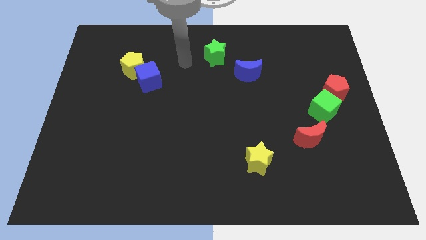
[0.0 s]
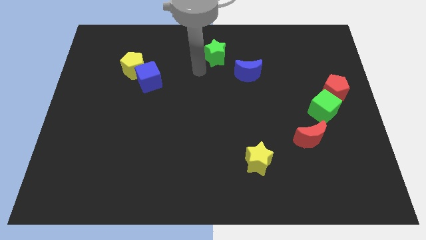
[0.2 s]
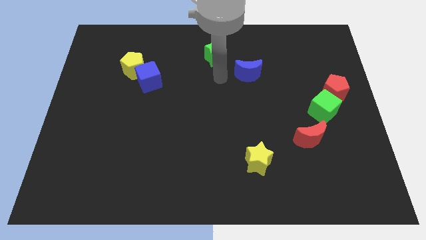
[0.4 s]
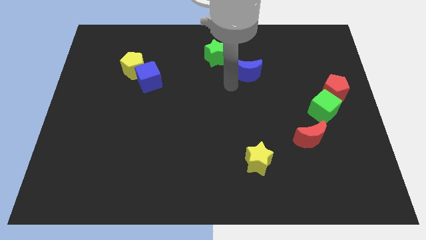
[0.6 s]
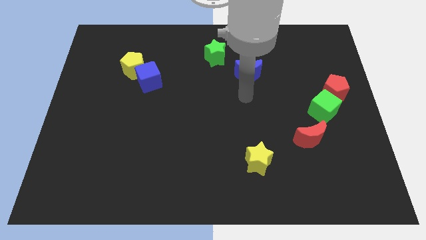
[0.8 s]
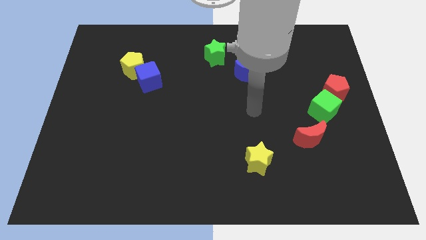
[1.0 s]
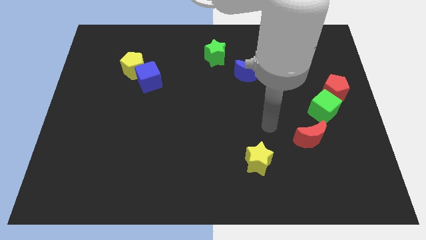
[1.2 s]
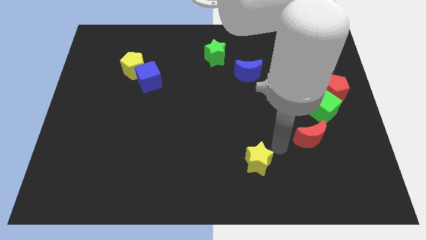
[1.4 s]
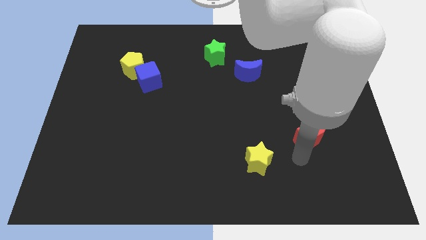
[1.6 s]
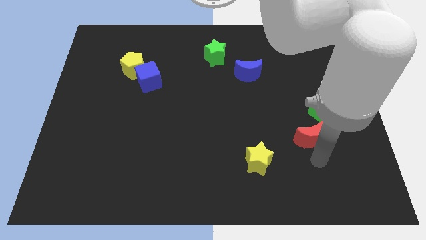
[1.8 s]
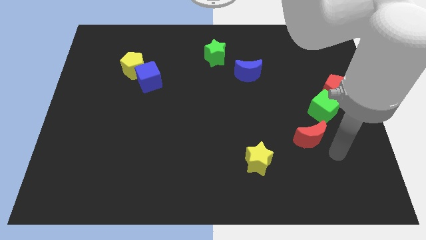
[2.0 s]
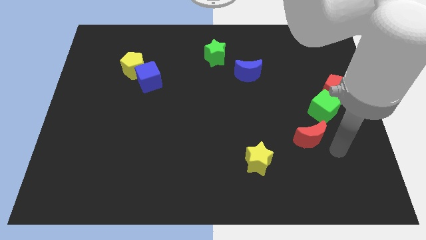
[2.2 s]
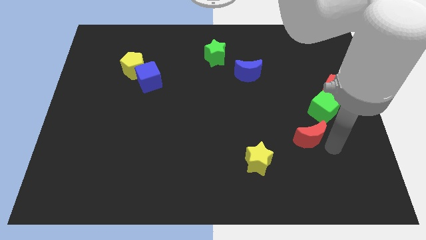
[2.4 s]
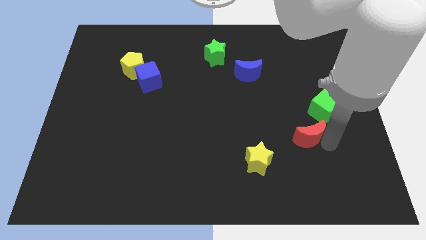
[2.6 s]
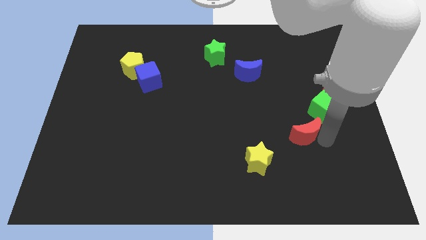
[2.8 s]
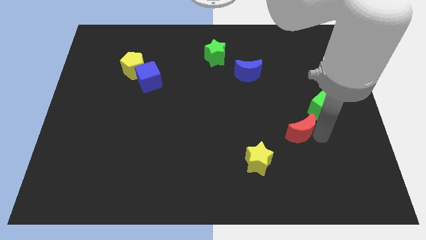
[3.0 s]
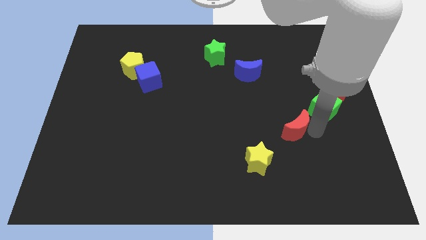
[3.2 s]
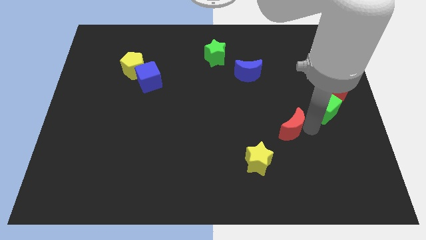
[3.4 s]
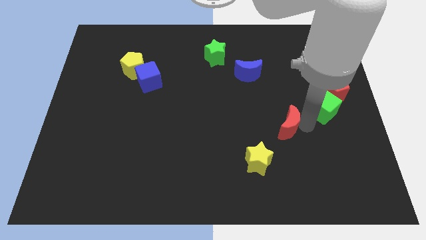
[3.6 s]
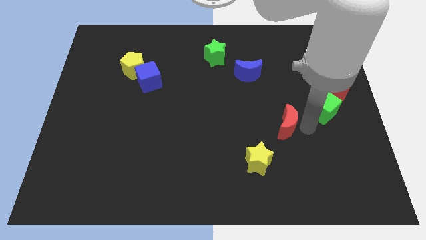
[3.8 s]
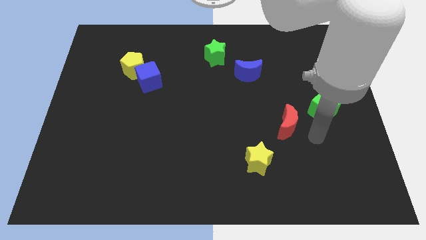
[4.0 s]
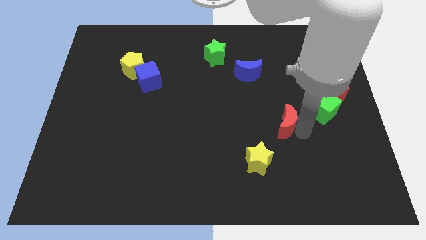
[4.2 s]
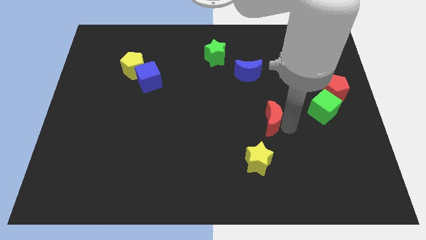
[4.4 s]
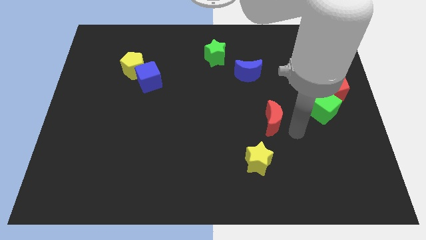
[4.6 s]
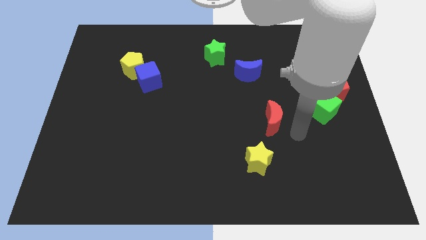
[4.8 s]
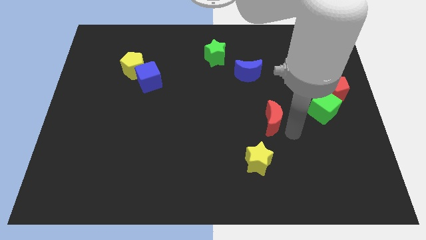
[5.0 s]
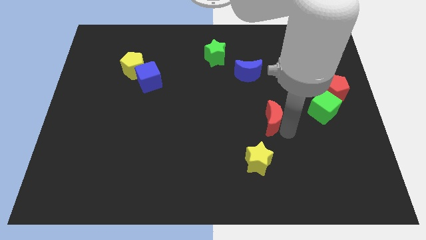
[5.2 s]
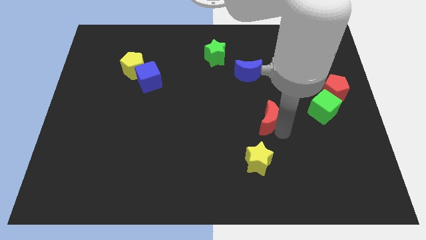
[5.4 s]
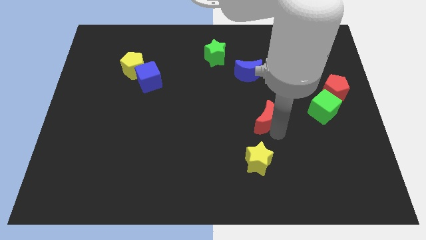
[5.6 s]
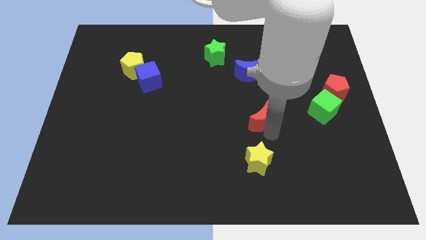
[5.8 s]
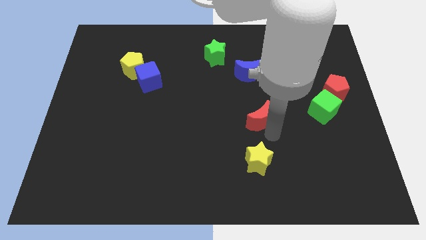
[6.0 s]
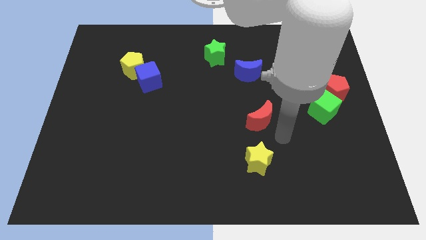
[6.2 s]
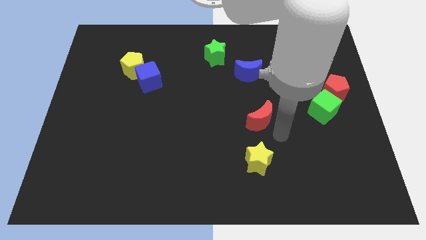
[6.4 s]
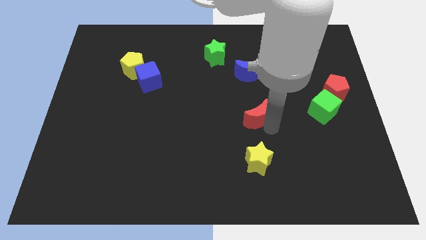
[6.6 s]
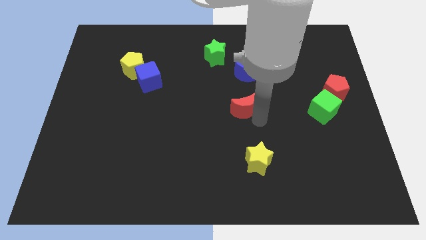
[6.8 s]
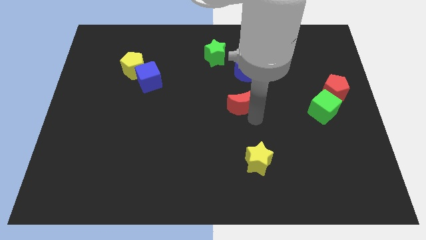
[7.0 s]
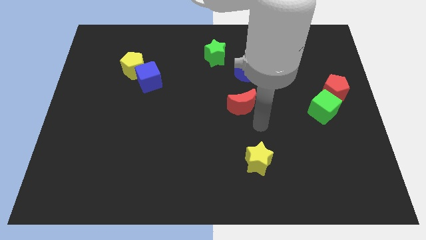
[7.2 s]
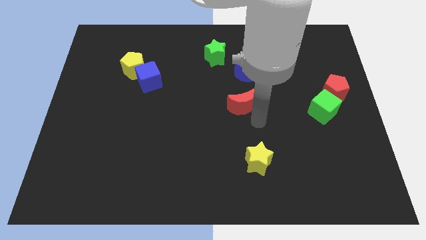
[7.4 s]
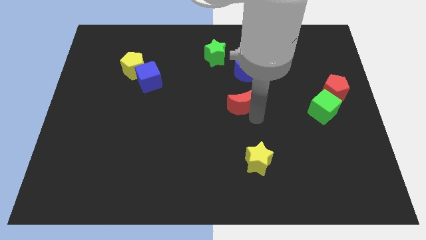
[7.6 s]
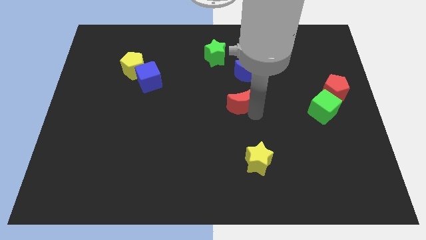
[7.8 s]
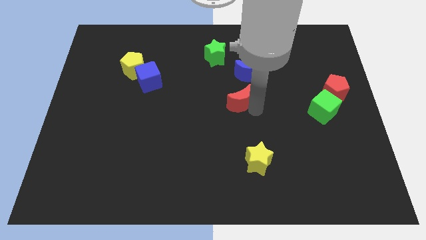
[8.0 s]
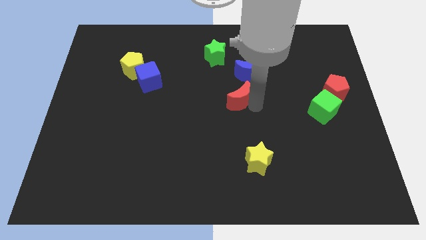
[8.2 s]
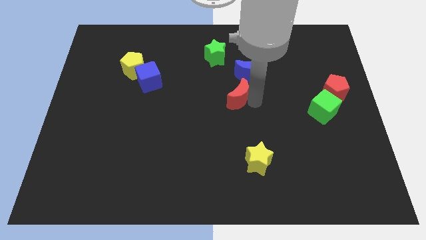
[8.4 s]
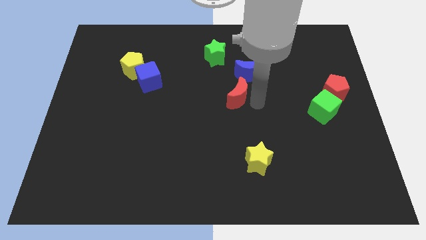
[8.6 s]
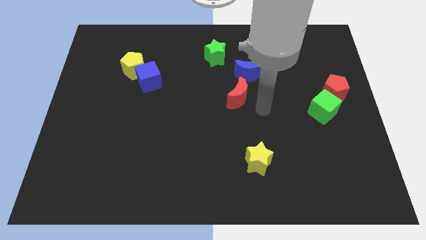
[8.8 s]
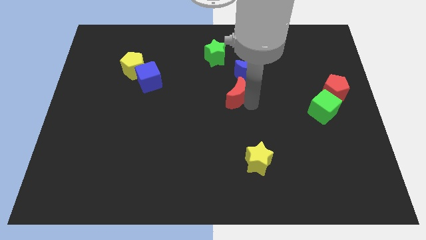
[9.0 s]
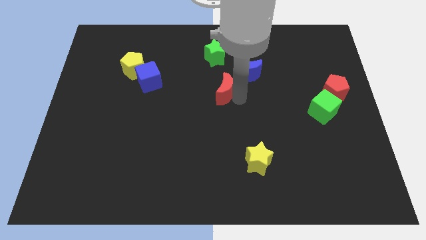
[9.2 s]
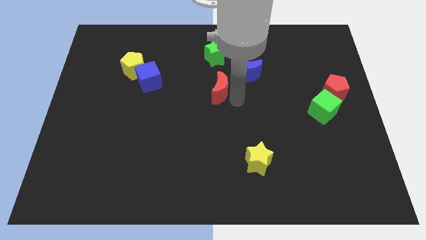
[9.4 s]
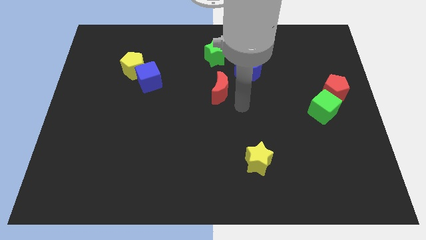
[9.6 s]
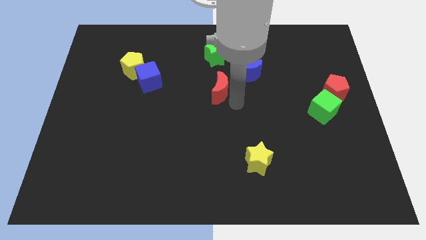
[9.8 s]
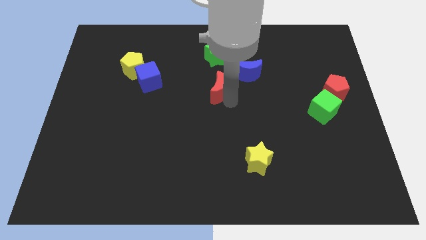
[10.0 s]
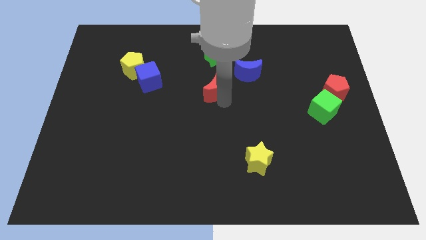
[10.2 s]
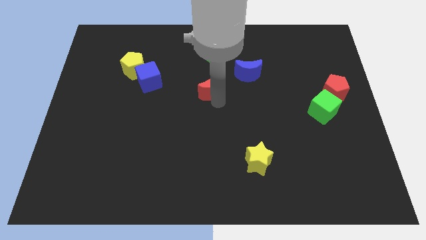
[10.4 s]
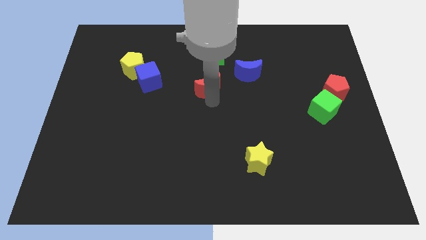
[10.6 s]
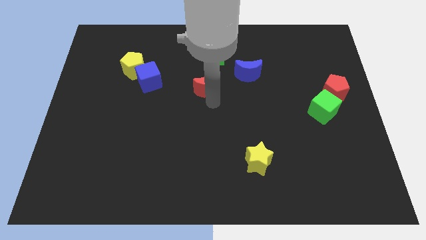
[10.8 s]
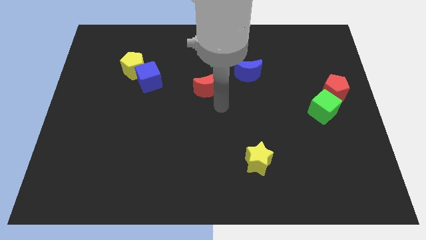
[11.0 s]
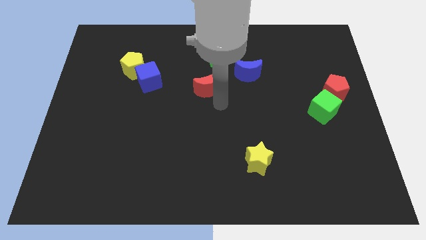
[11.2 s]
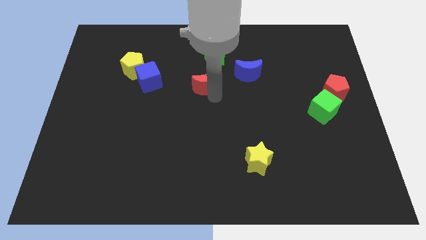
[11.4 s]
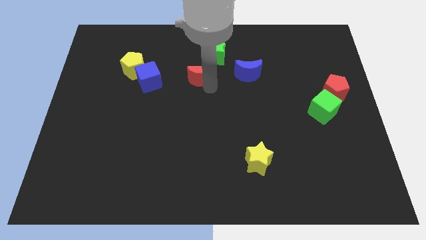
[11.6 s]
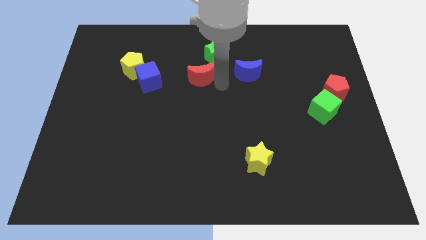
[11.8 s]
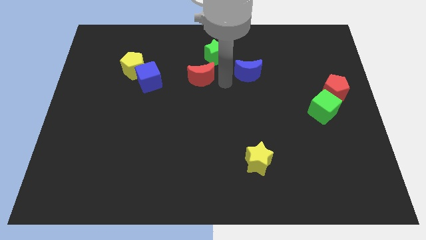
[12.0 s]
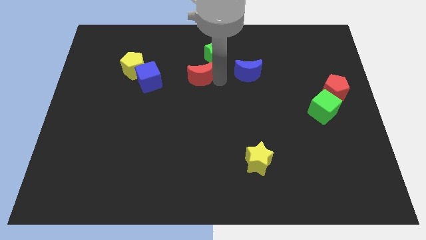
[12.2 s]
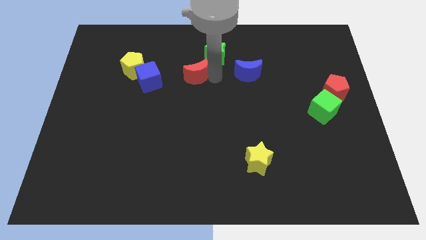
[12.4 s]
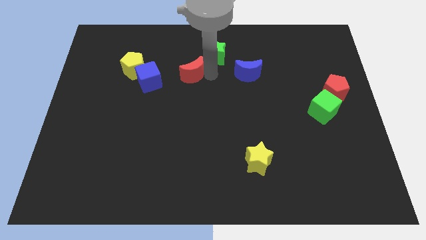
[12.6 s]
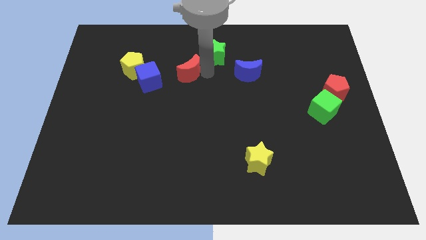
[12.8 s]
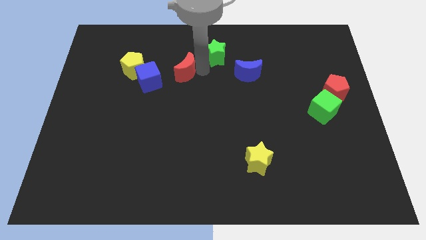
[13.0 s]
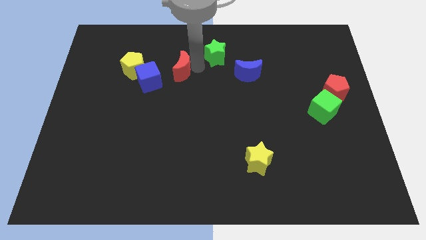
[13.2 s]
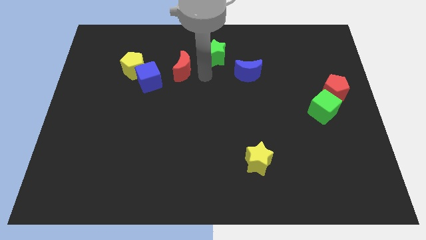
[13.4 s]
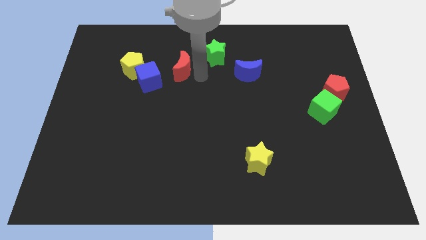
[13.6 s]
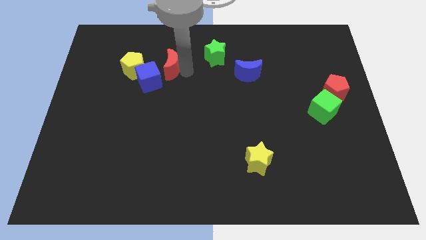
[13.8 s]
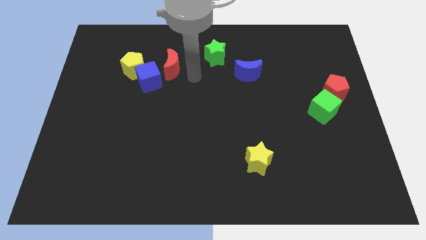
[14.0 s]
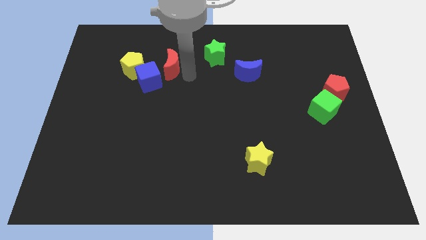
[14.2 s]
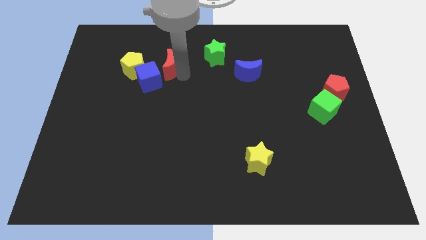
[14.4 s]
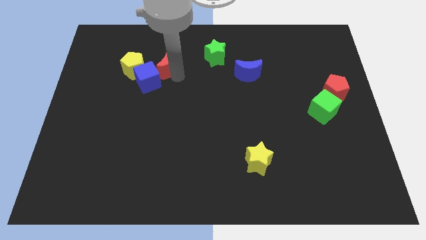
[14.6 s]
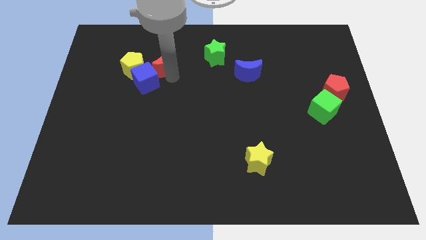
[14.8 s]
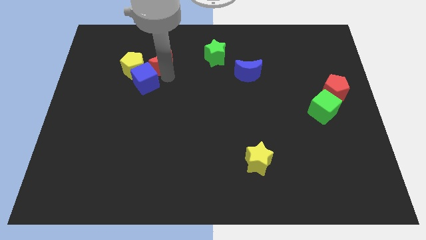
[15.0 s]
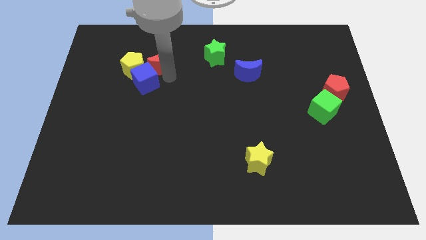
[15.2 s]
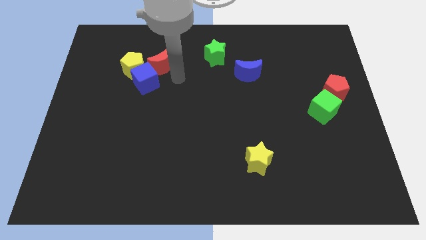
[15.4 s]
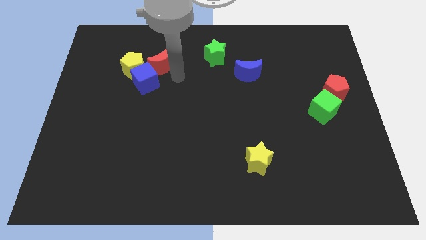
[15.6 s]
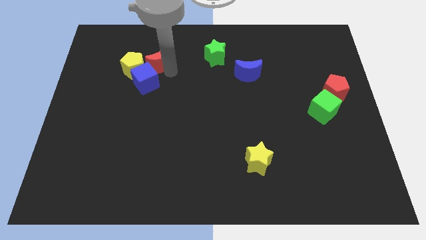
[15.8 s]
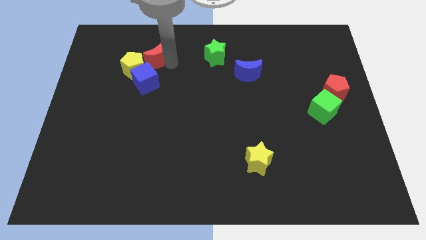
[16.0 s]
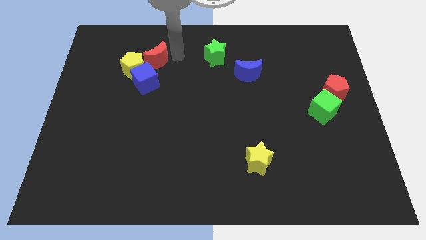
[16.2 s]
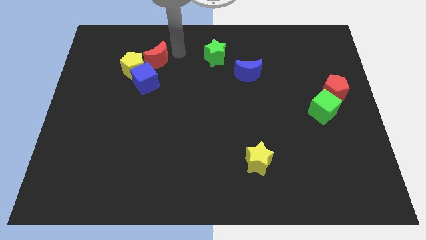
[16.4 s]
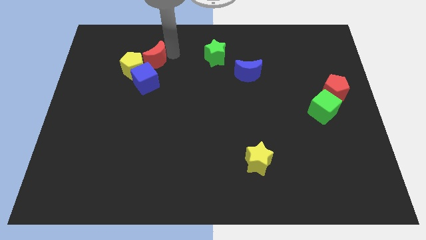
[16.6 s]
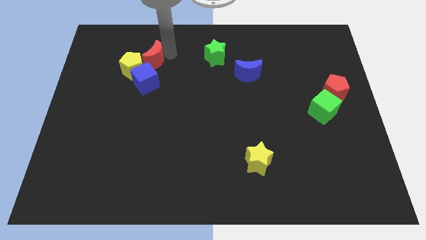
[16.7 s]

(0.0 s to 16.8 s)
slide the red moon to the yellow pentagon
